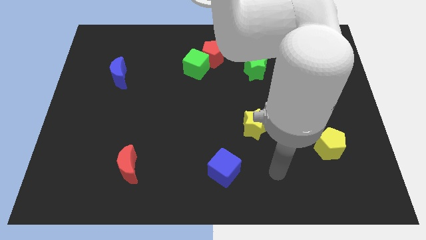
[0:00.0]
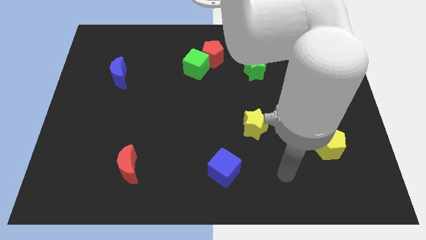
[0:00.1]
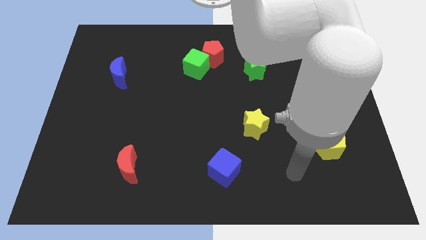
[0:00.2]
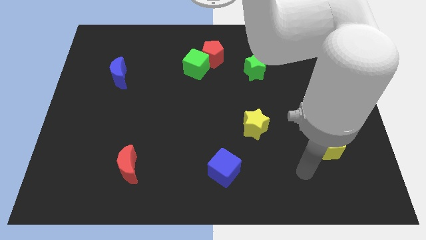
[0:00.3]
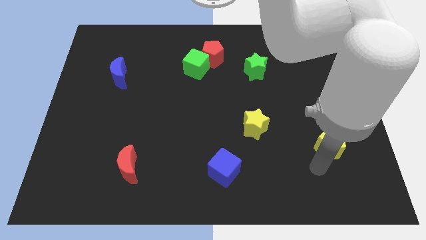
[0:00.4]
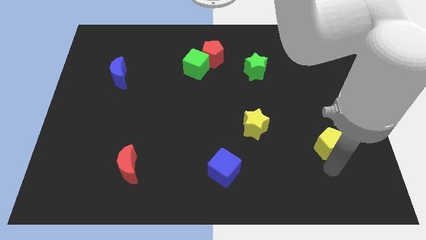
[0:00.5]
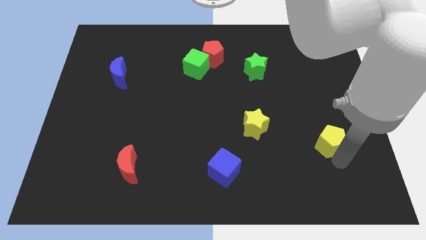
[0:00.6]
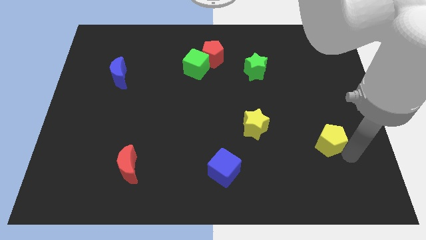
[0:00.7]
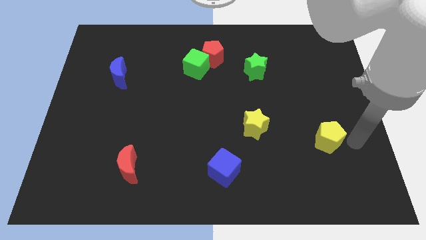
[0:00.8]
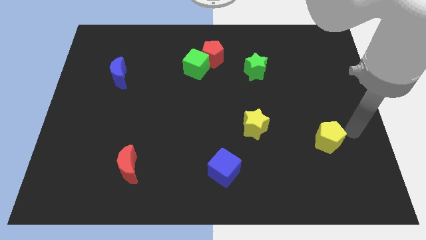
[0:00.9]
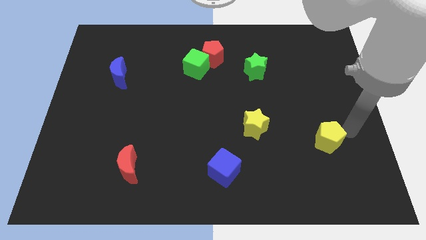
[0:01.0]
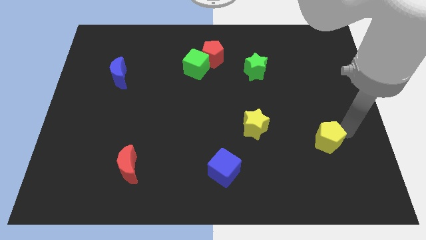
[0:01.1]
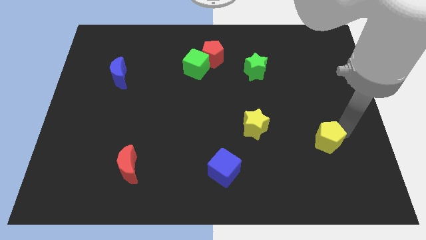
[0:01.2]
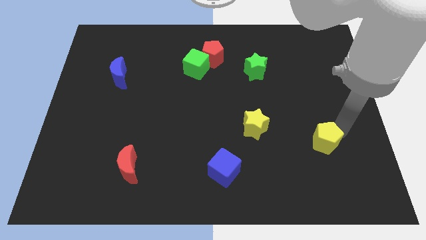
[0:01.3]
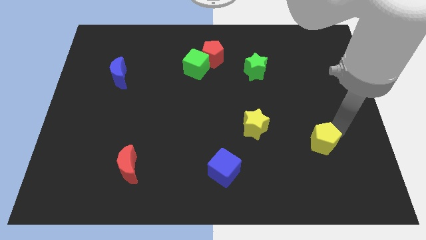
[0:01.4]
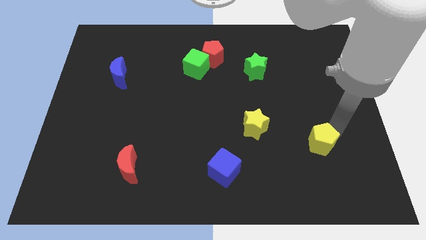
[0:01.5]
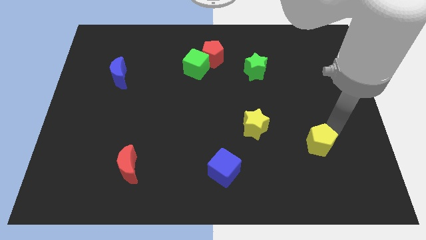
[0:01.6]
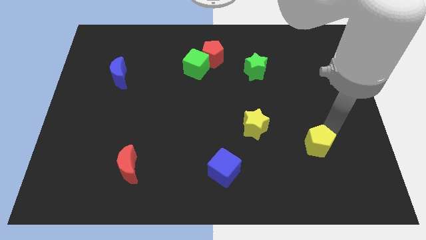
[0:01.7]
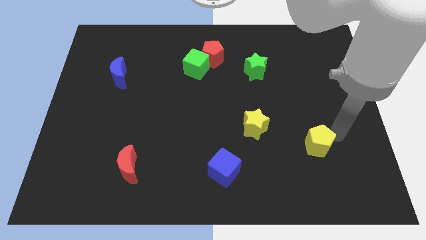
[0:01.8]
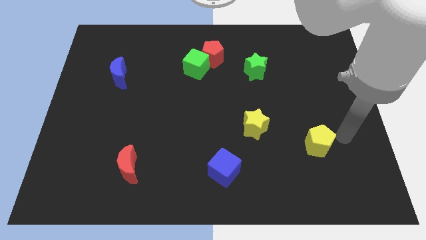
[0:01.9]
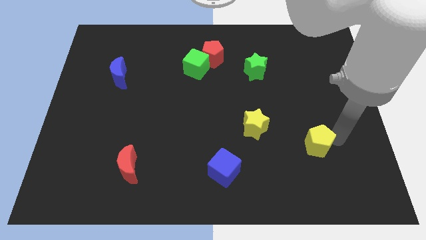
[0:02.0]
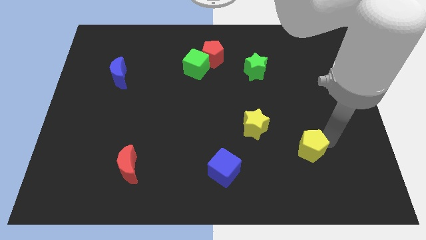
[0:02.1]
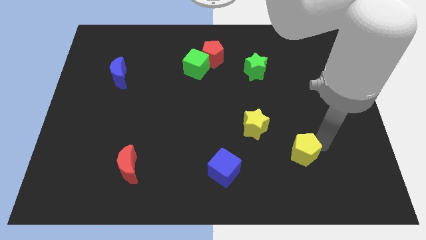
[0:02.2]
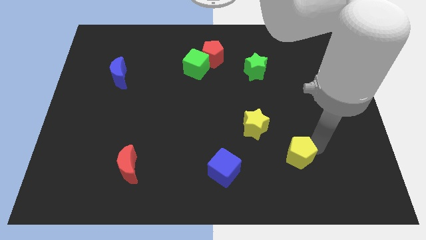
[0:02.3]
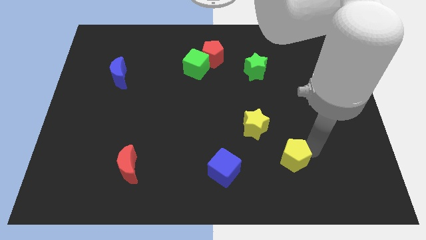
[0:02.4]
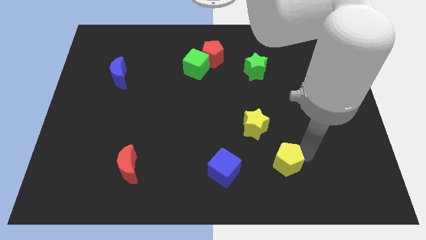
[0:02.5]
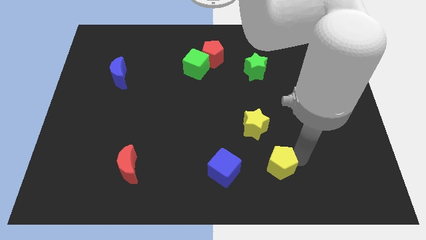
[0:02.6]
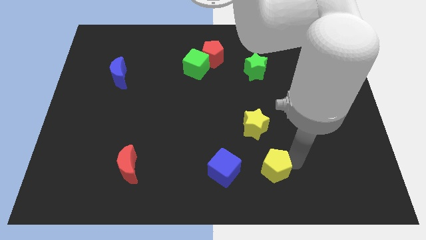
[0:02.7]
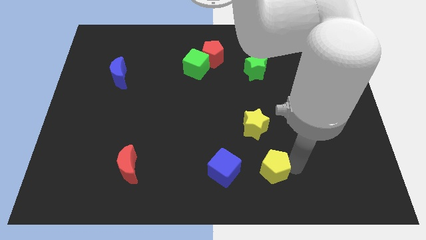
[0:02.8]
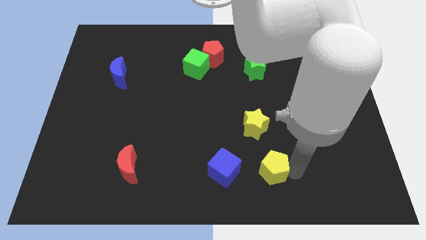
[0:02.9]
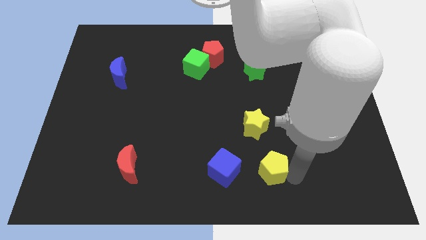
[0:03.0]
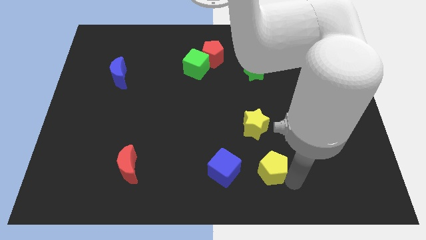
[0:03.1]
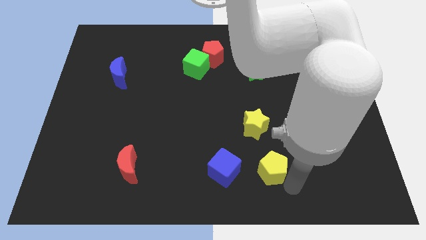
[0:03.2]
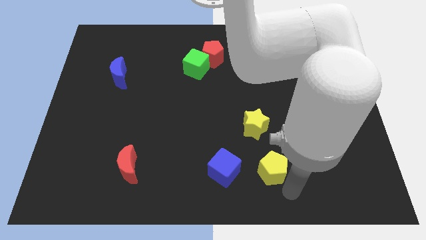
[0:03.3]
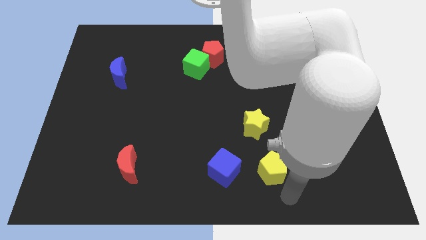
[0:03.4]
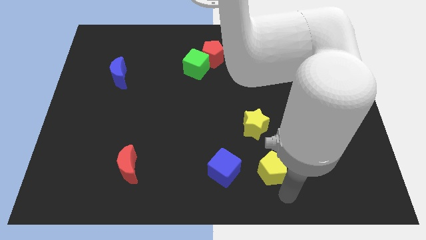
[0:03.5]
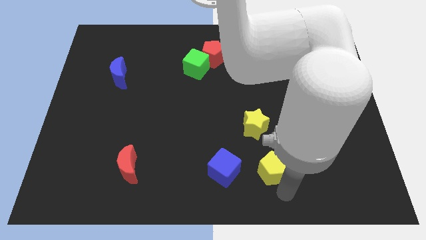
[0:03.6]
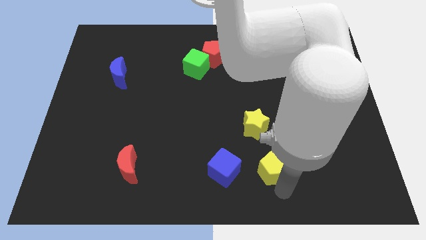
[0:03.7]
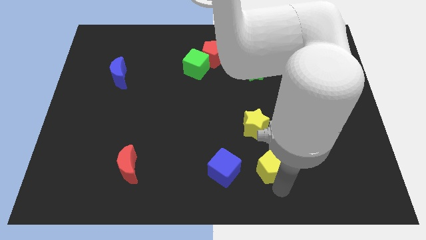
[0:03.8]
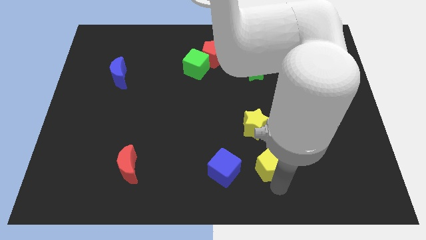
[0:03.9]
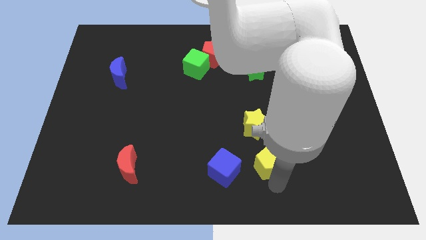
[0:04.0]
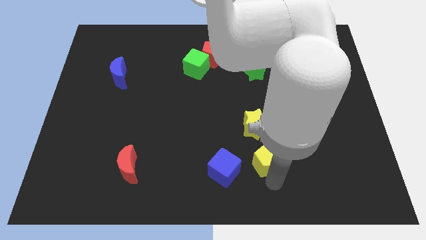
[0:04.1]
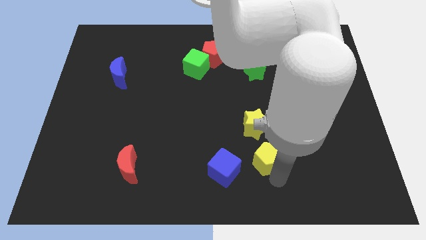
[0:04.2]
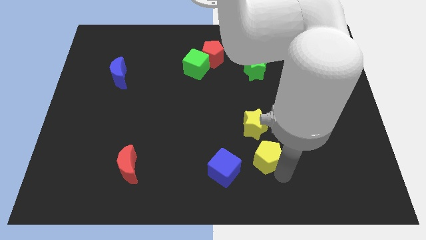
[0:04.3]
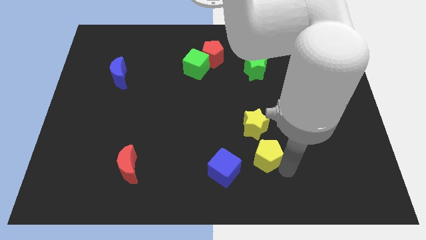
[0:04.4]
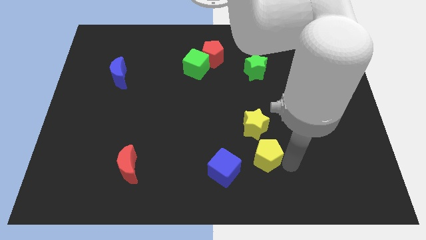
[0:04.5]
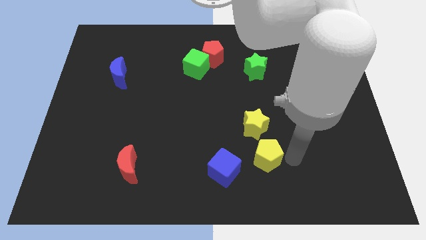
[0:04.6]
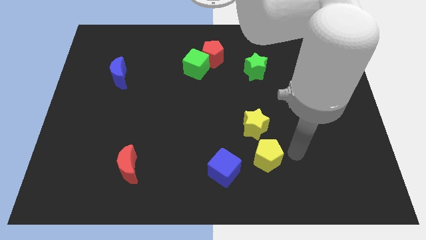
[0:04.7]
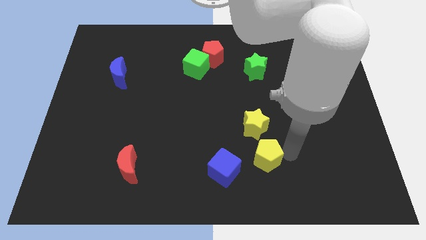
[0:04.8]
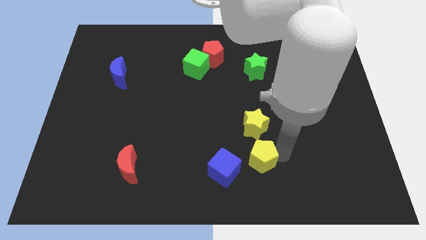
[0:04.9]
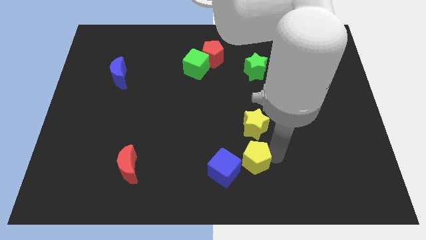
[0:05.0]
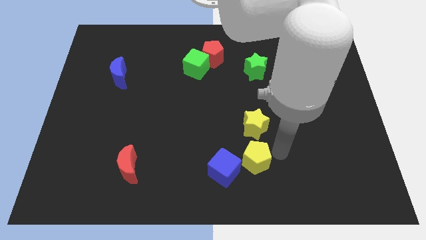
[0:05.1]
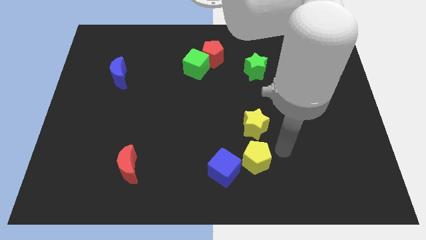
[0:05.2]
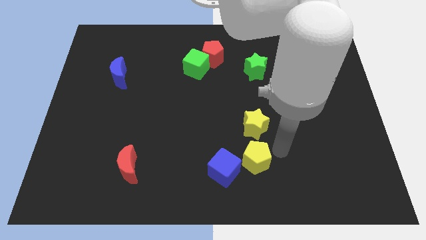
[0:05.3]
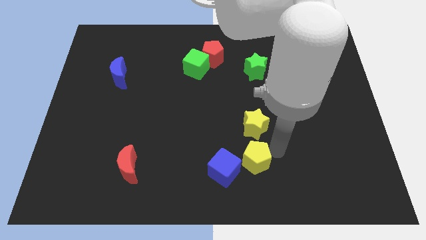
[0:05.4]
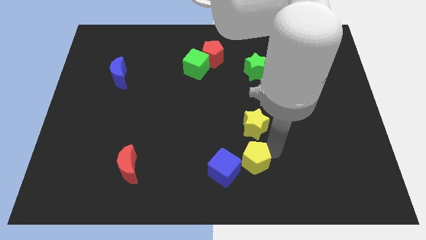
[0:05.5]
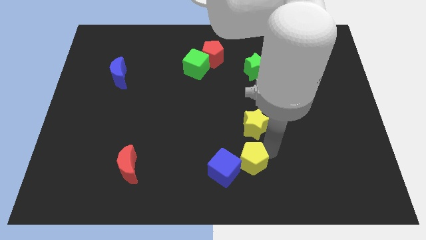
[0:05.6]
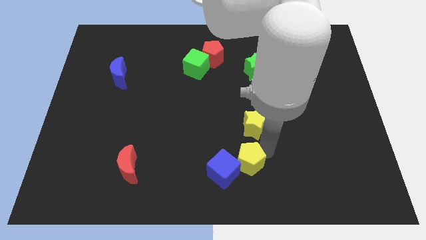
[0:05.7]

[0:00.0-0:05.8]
move the yellow pentagon next to the blue cube

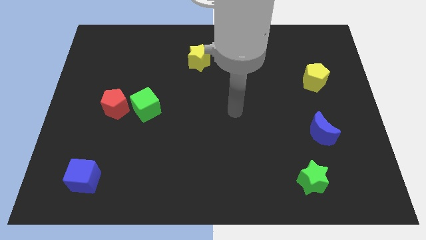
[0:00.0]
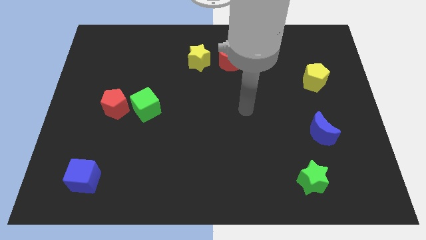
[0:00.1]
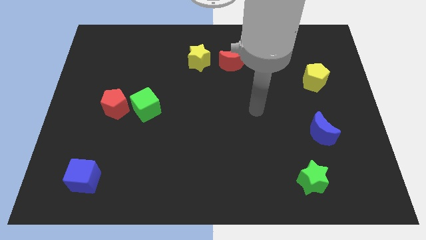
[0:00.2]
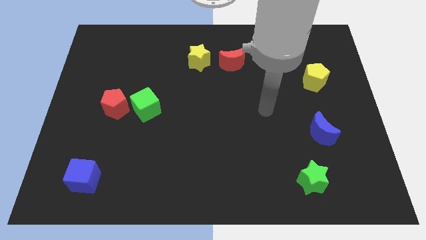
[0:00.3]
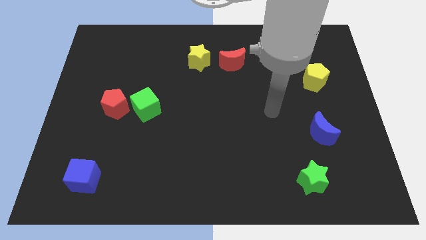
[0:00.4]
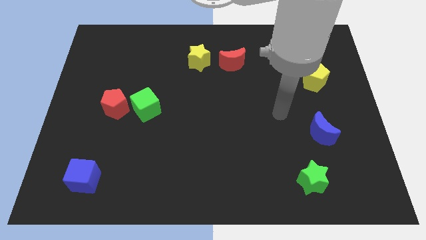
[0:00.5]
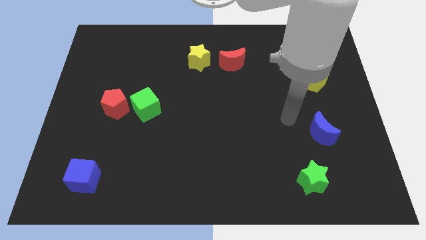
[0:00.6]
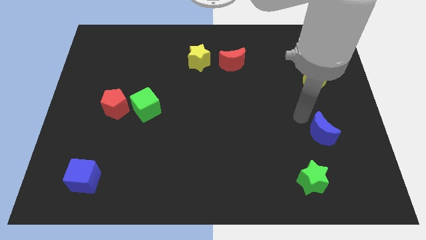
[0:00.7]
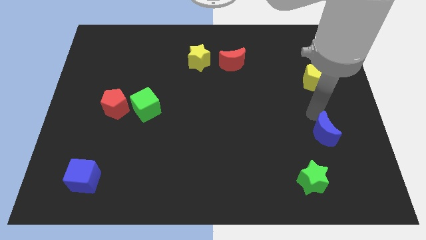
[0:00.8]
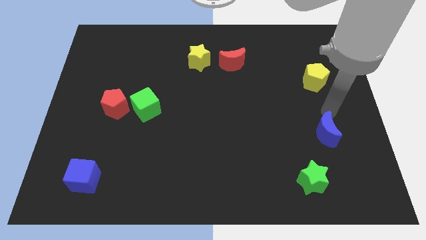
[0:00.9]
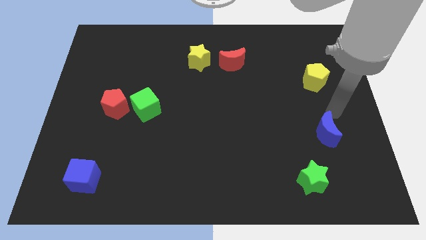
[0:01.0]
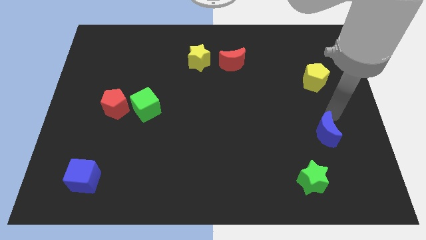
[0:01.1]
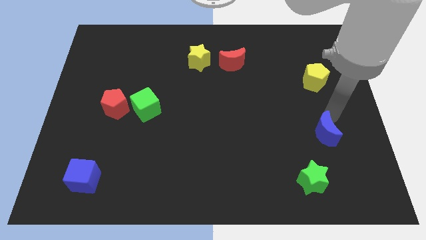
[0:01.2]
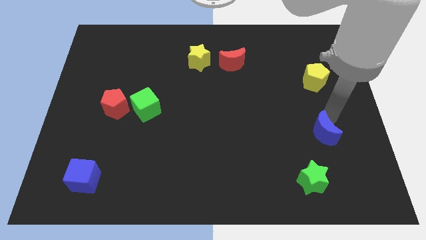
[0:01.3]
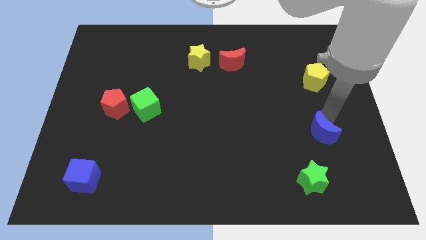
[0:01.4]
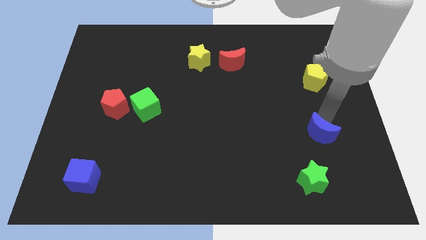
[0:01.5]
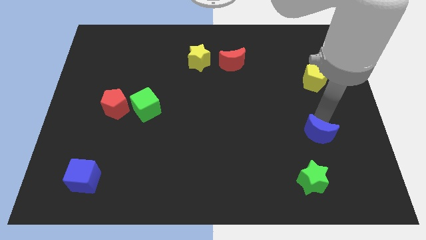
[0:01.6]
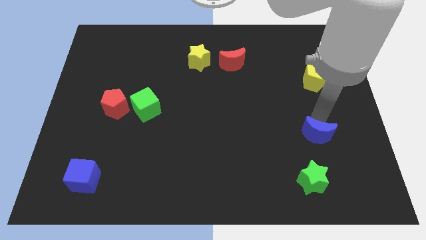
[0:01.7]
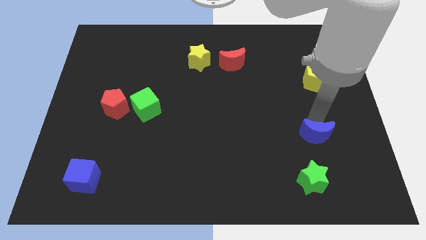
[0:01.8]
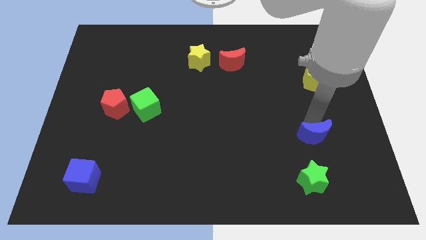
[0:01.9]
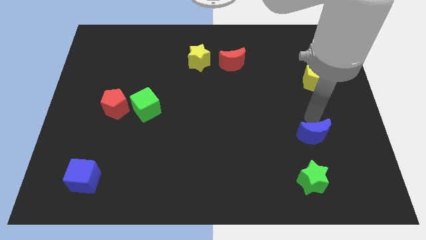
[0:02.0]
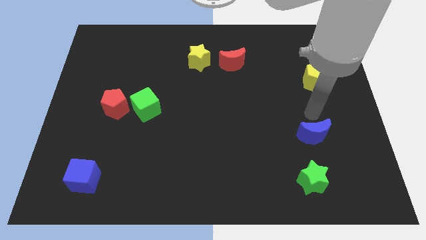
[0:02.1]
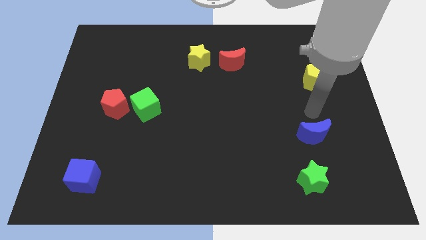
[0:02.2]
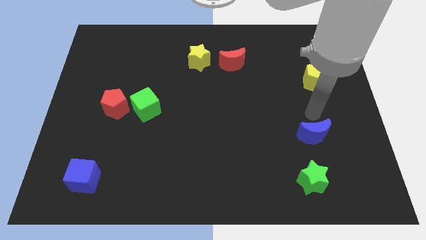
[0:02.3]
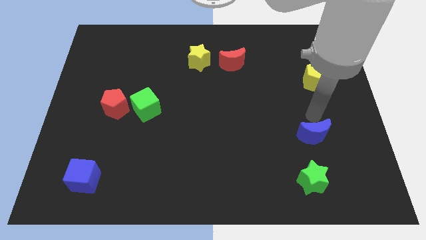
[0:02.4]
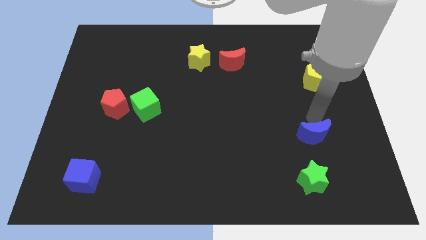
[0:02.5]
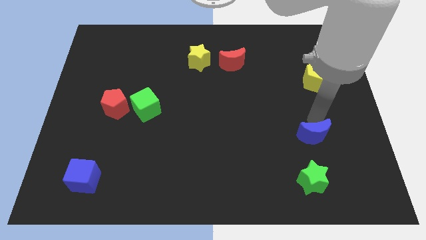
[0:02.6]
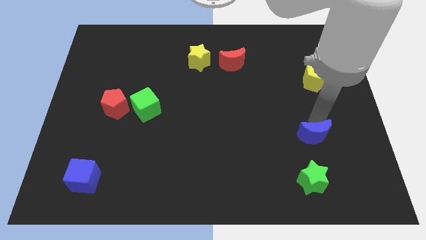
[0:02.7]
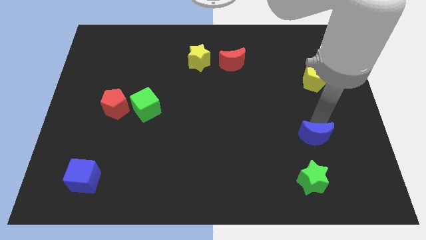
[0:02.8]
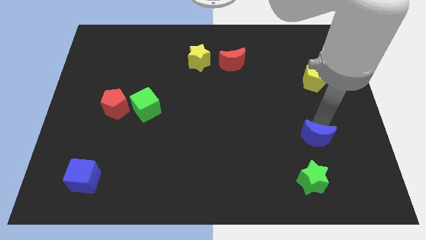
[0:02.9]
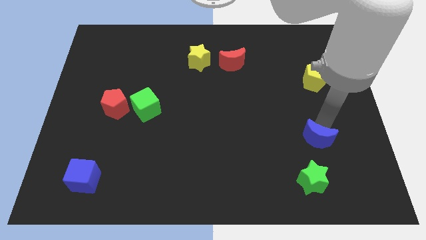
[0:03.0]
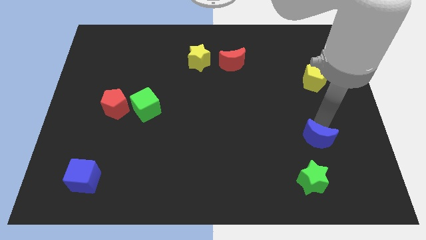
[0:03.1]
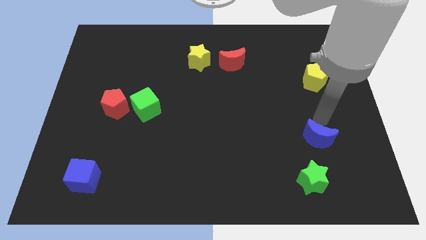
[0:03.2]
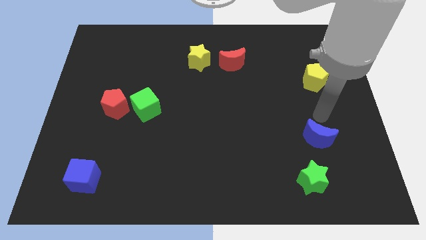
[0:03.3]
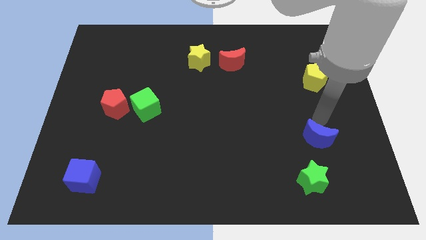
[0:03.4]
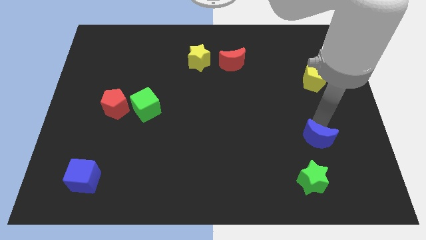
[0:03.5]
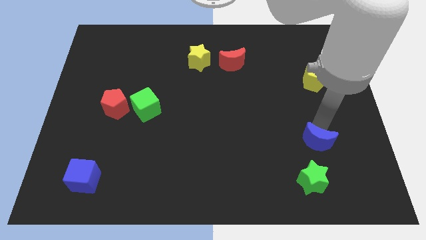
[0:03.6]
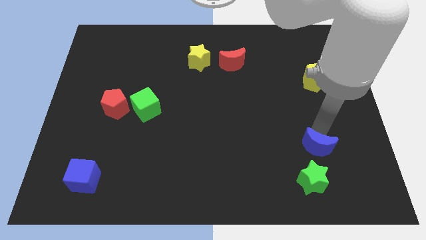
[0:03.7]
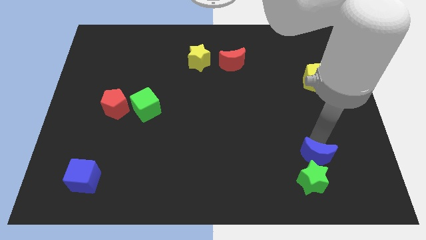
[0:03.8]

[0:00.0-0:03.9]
move the blue moon to the green star
